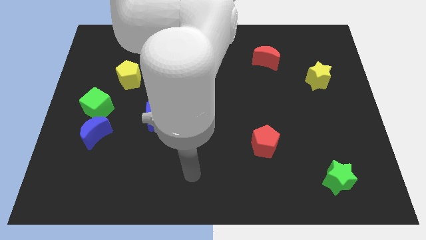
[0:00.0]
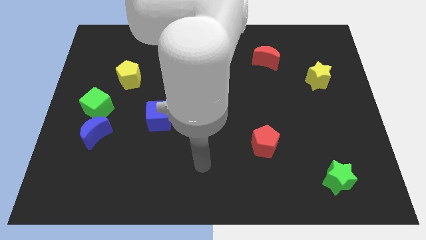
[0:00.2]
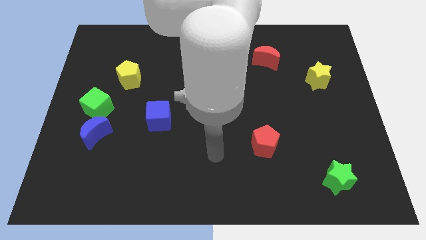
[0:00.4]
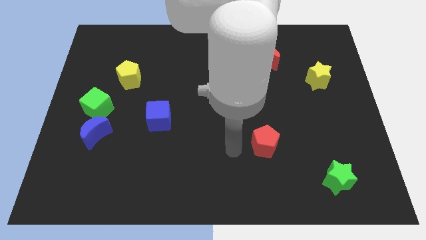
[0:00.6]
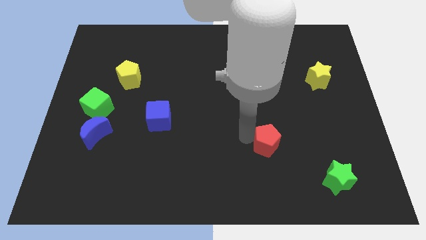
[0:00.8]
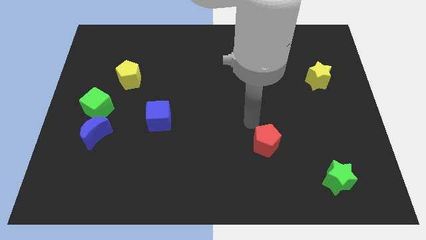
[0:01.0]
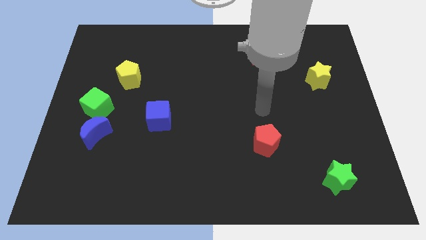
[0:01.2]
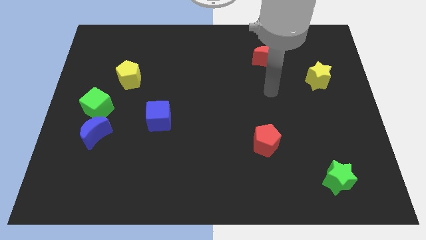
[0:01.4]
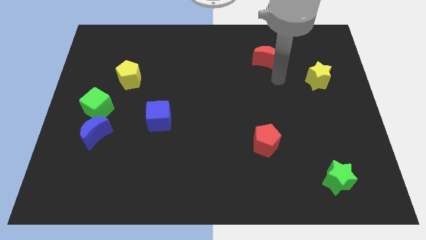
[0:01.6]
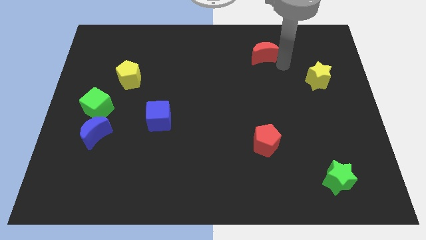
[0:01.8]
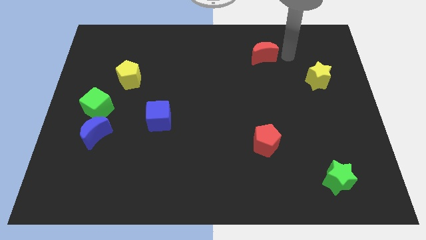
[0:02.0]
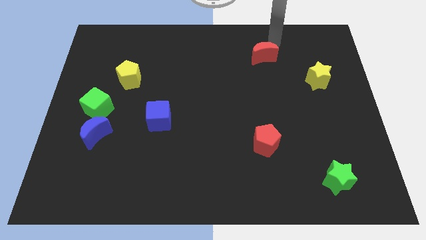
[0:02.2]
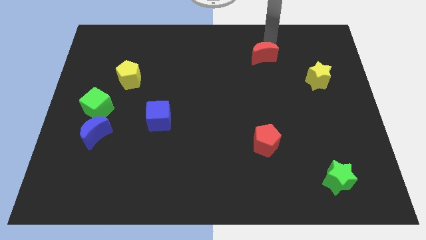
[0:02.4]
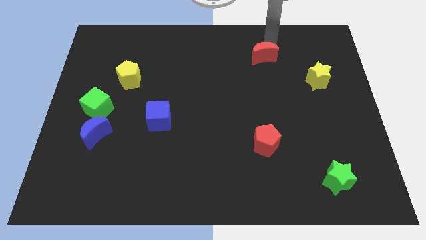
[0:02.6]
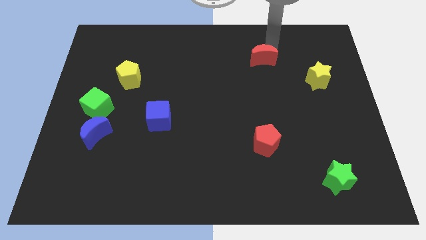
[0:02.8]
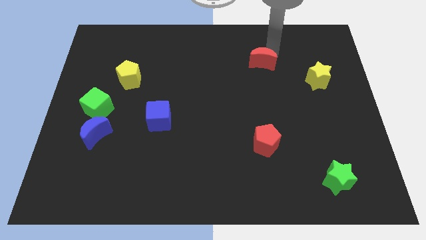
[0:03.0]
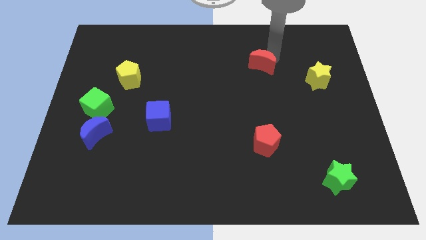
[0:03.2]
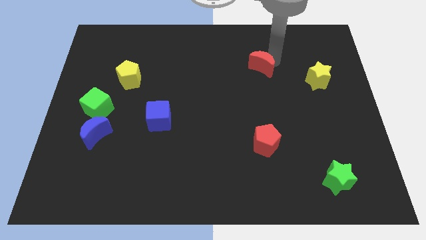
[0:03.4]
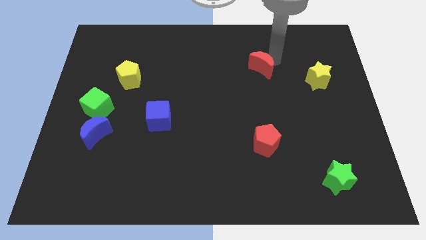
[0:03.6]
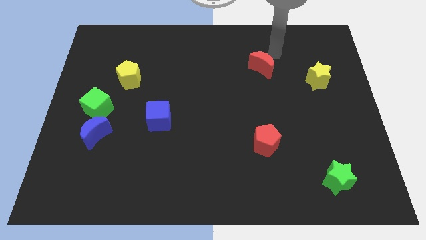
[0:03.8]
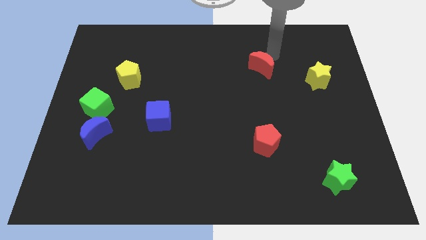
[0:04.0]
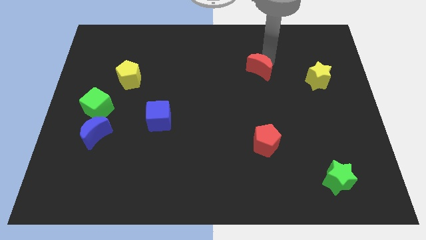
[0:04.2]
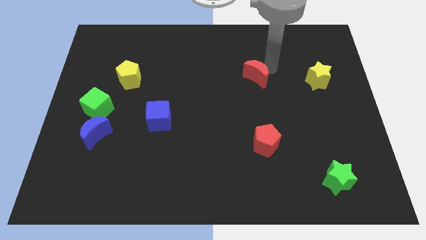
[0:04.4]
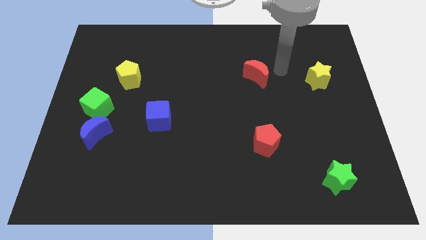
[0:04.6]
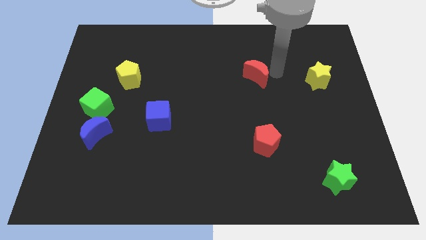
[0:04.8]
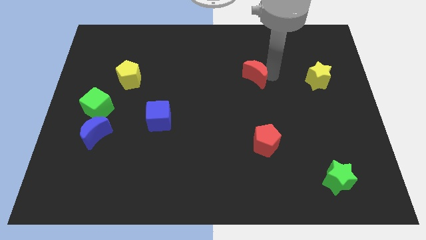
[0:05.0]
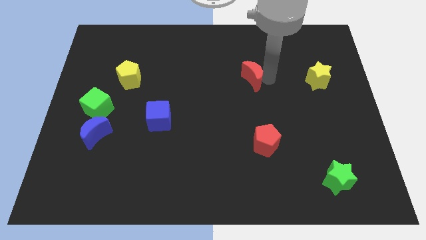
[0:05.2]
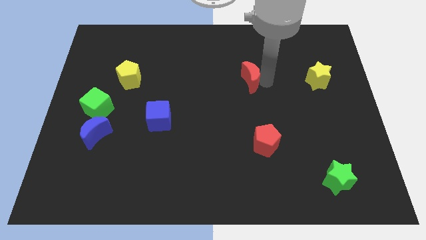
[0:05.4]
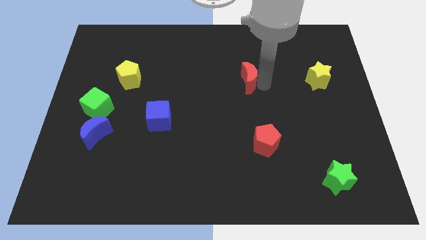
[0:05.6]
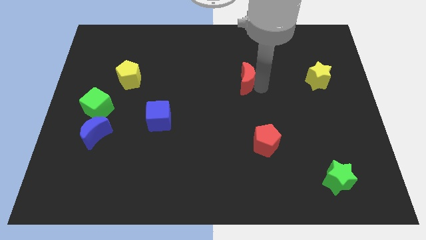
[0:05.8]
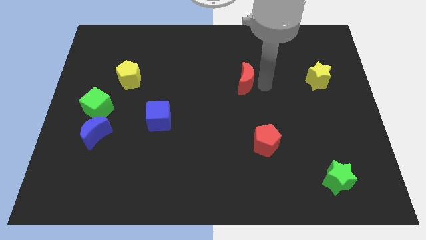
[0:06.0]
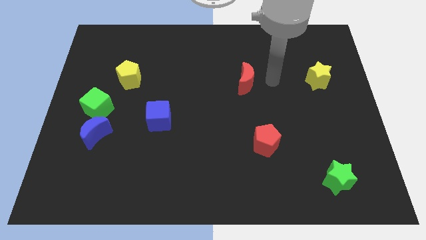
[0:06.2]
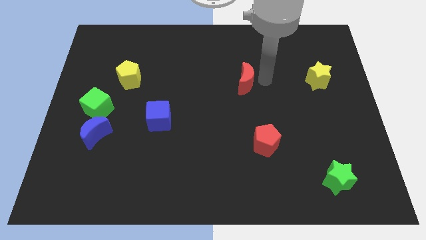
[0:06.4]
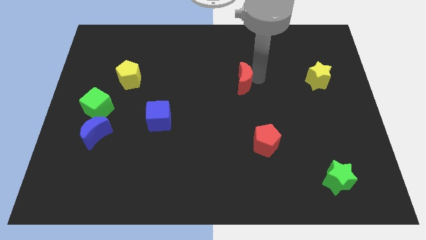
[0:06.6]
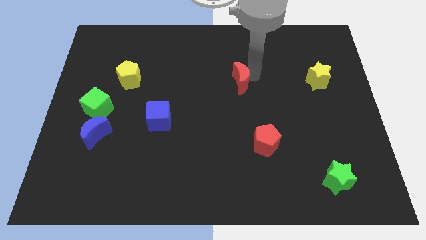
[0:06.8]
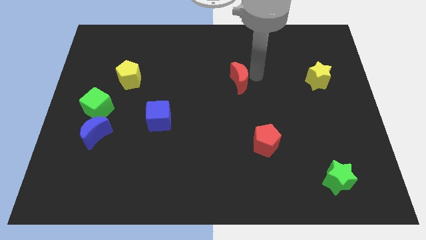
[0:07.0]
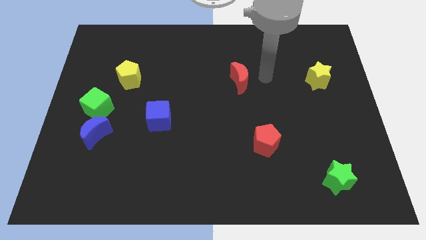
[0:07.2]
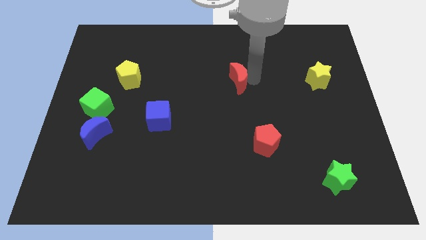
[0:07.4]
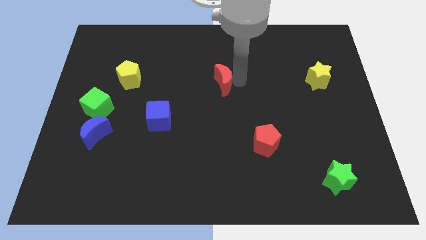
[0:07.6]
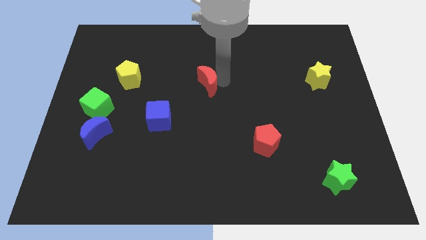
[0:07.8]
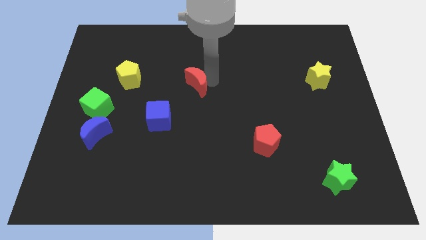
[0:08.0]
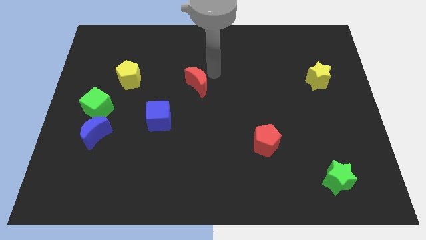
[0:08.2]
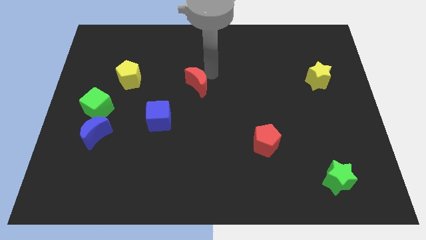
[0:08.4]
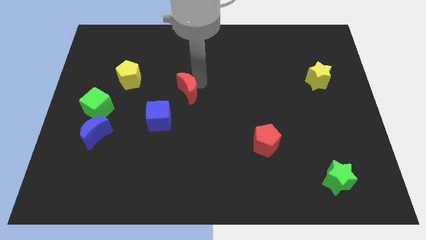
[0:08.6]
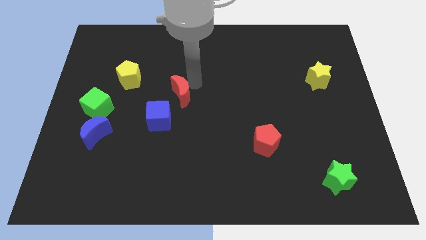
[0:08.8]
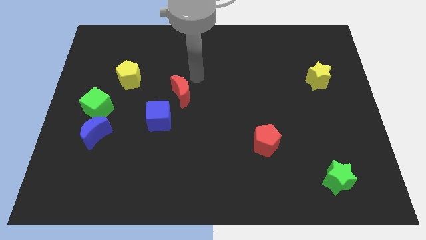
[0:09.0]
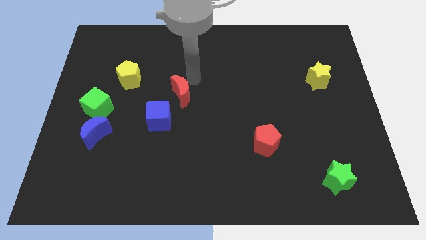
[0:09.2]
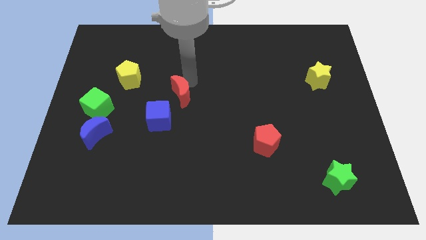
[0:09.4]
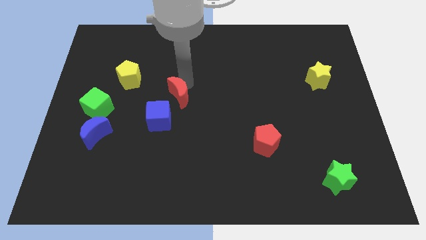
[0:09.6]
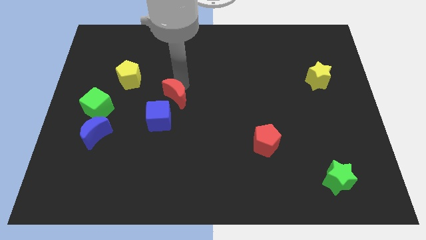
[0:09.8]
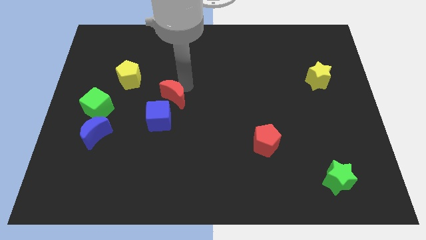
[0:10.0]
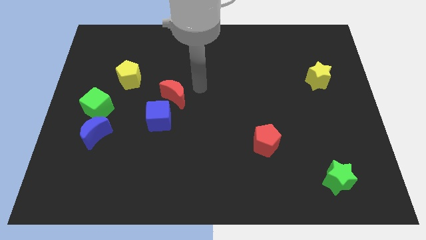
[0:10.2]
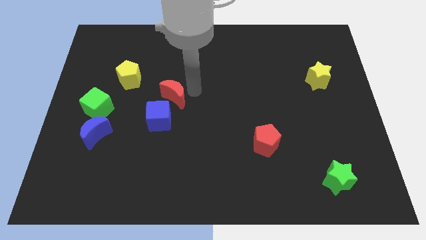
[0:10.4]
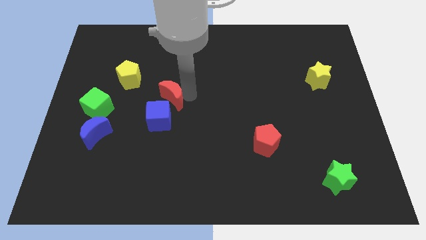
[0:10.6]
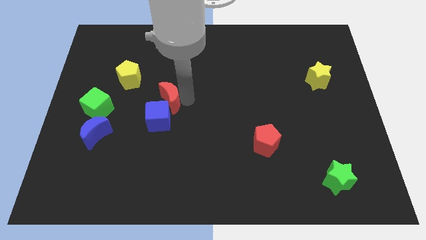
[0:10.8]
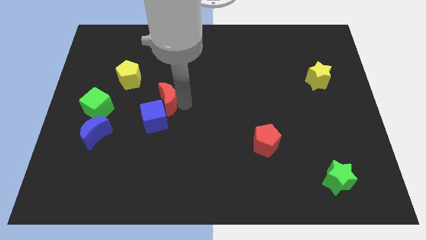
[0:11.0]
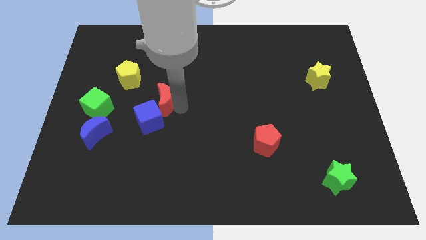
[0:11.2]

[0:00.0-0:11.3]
push the red moon just right of the green cube

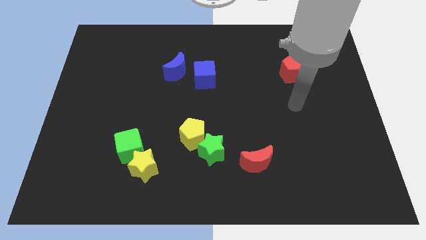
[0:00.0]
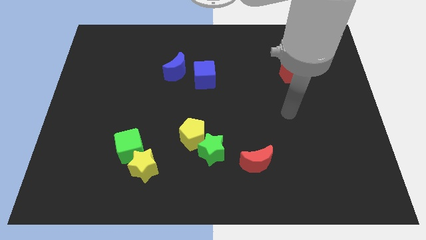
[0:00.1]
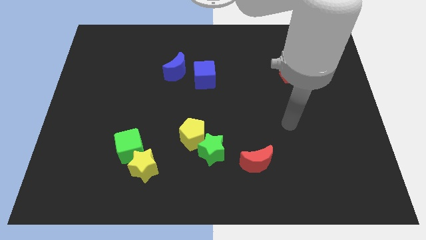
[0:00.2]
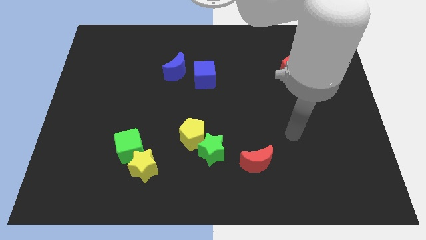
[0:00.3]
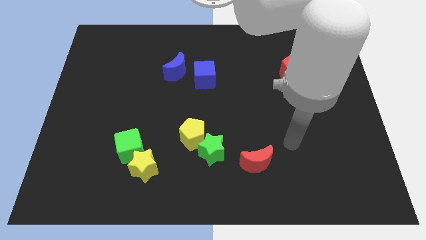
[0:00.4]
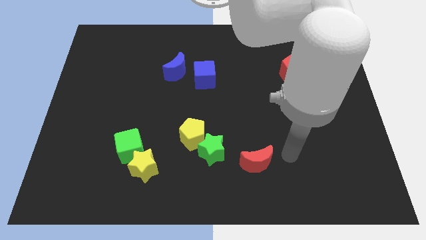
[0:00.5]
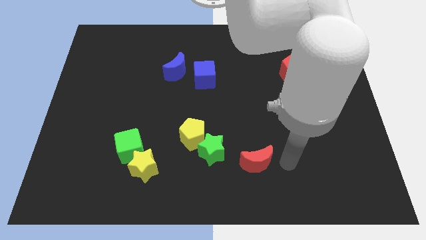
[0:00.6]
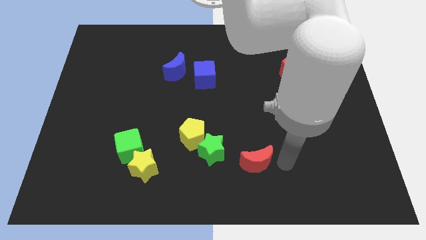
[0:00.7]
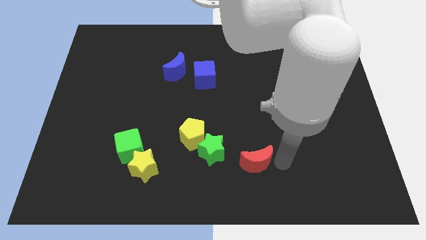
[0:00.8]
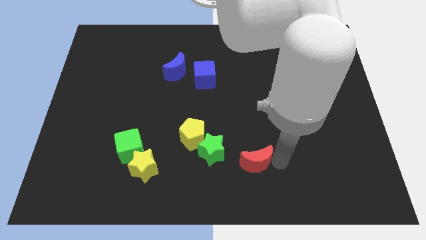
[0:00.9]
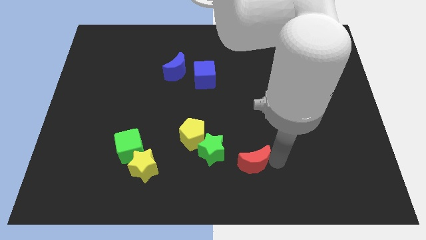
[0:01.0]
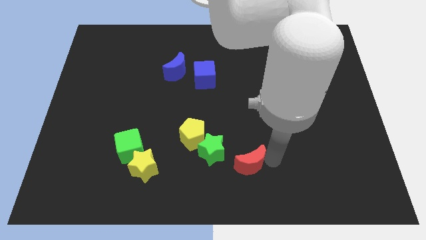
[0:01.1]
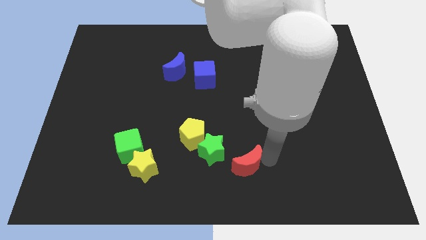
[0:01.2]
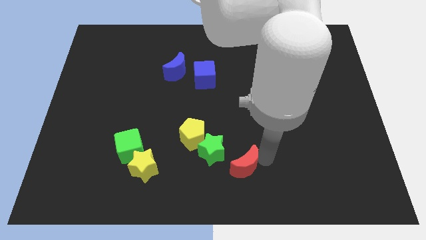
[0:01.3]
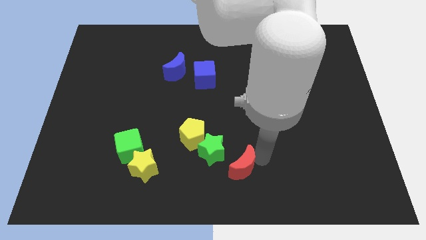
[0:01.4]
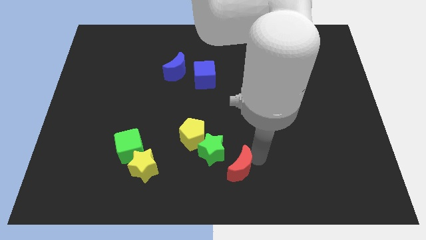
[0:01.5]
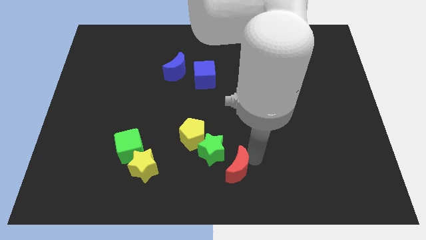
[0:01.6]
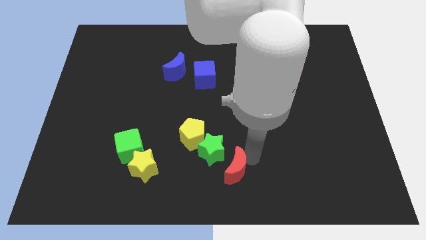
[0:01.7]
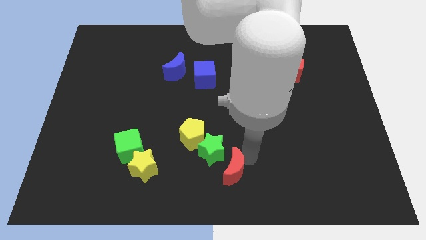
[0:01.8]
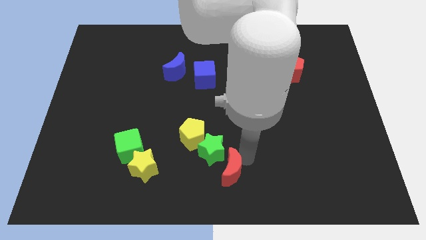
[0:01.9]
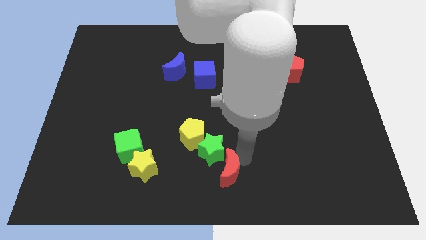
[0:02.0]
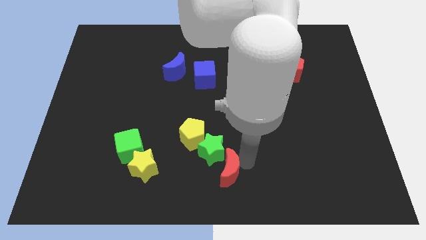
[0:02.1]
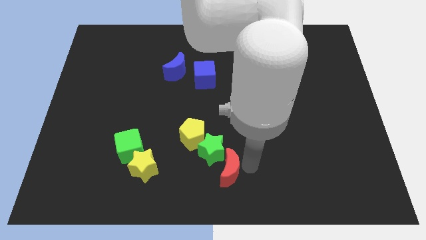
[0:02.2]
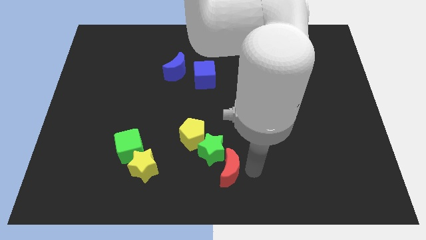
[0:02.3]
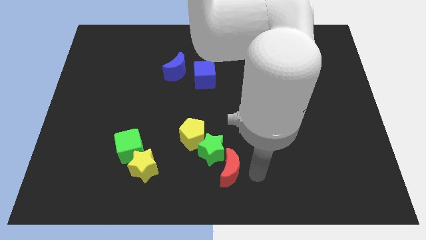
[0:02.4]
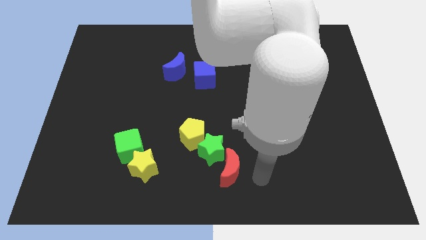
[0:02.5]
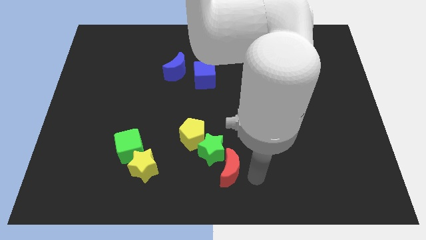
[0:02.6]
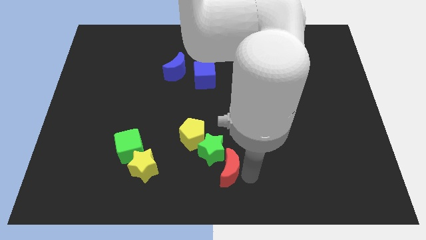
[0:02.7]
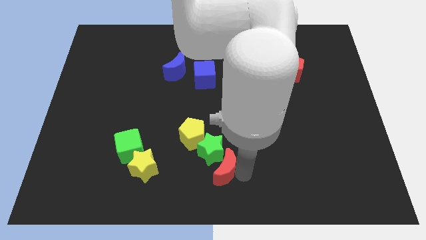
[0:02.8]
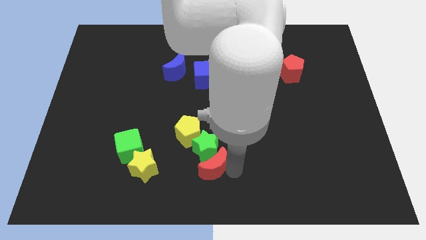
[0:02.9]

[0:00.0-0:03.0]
push the red moon to the bottom left side of the green star
